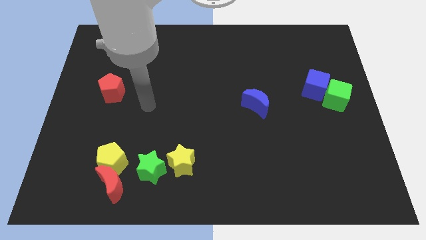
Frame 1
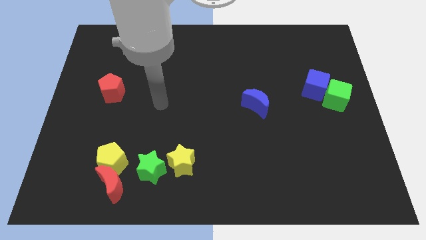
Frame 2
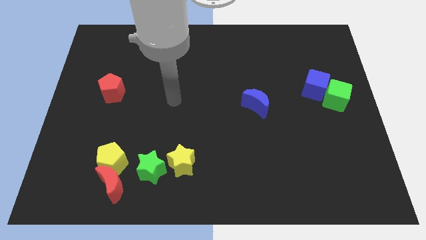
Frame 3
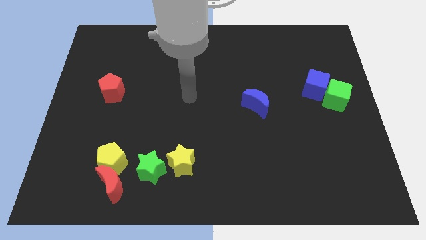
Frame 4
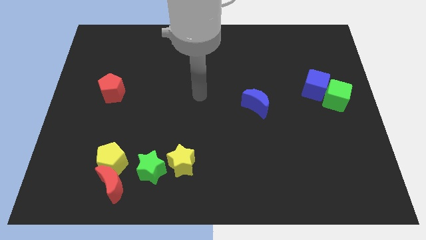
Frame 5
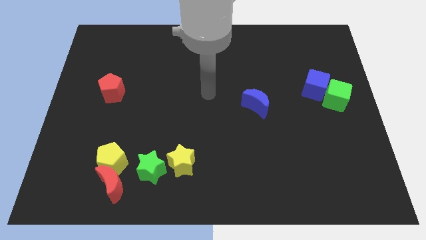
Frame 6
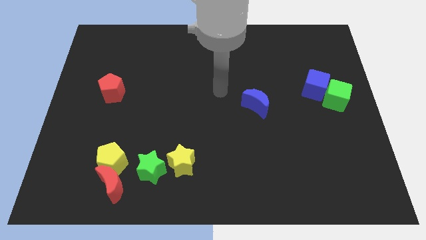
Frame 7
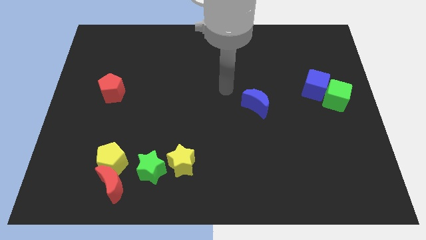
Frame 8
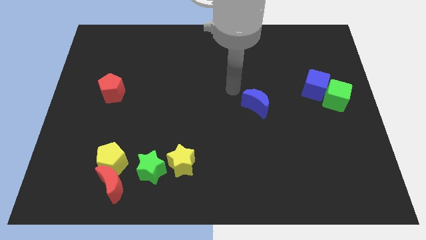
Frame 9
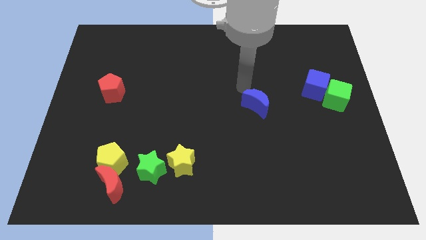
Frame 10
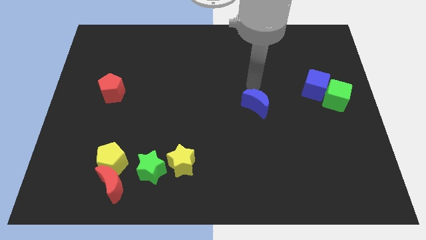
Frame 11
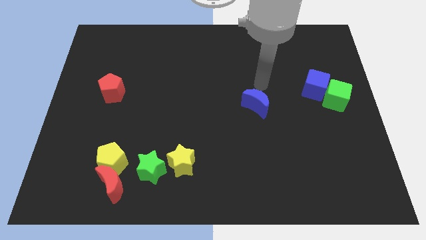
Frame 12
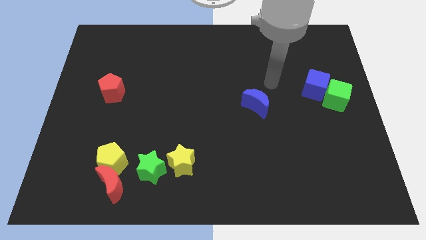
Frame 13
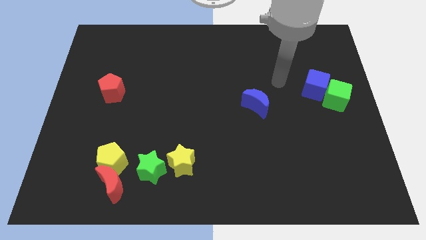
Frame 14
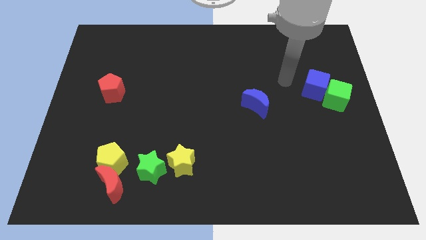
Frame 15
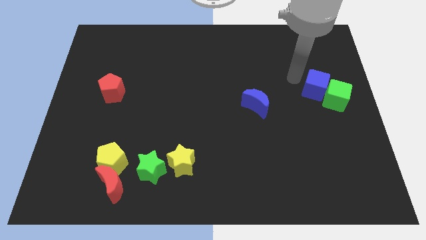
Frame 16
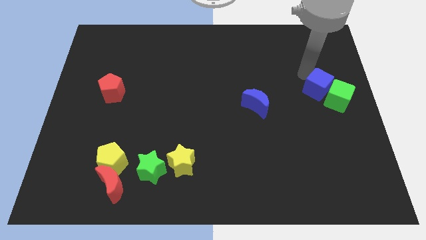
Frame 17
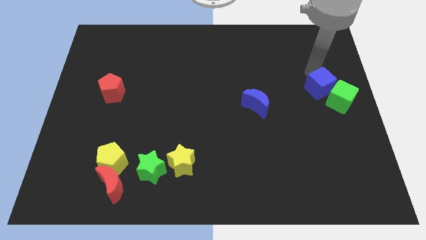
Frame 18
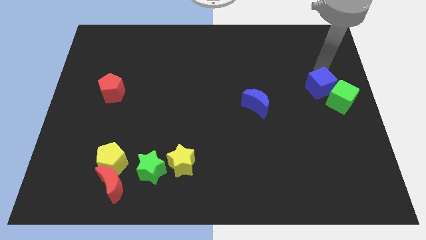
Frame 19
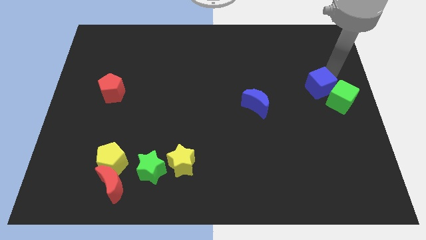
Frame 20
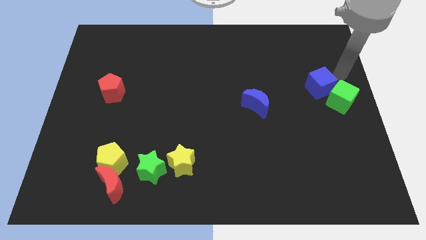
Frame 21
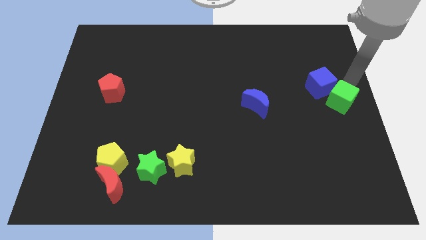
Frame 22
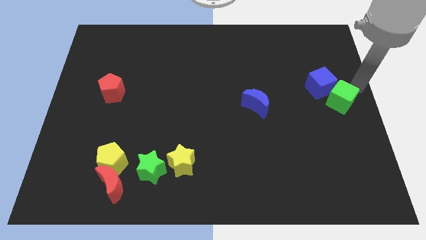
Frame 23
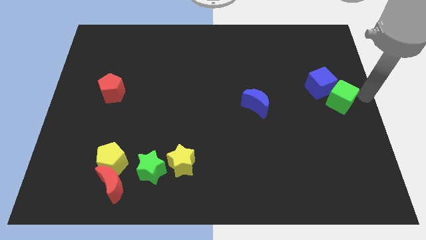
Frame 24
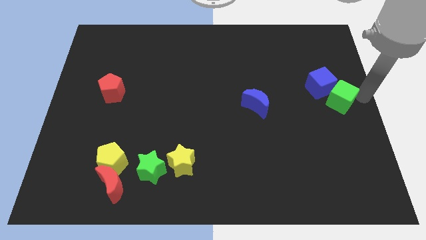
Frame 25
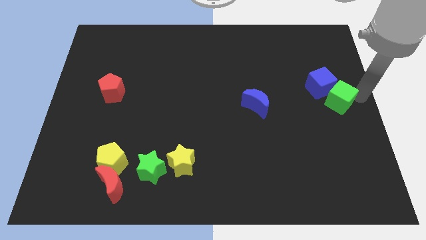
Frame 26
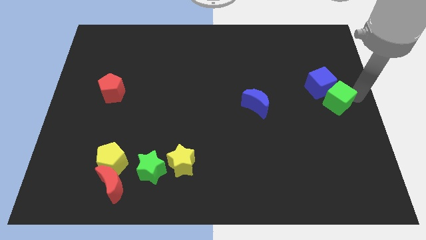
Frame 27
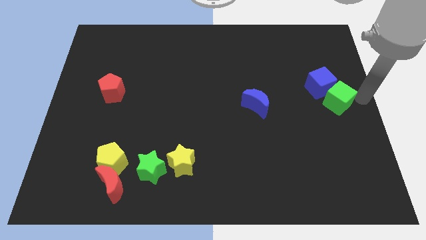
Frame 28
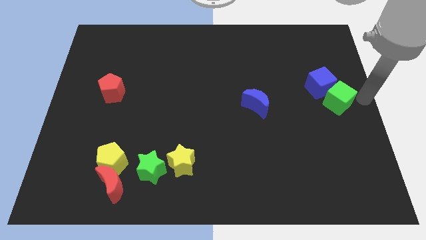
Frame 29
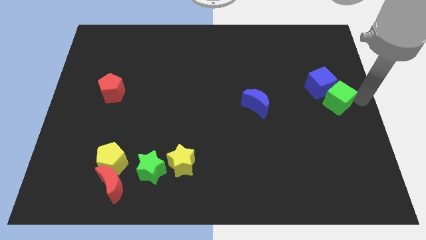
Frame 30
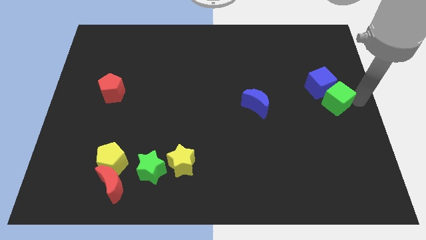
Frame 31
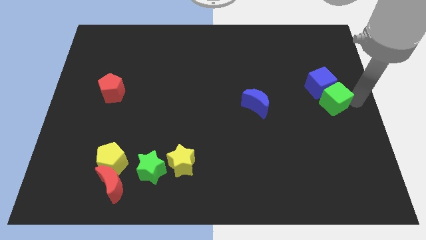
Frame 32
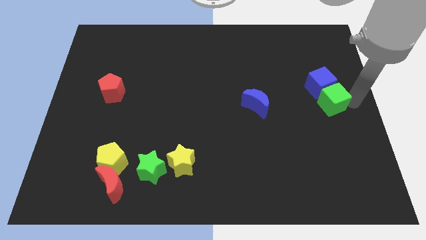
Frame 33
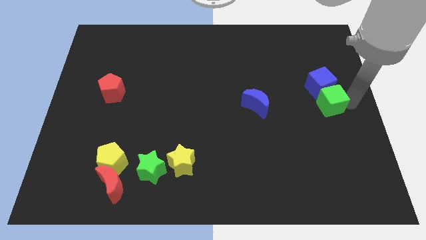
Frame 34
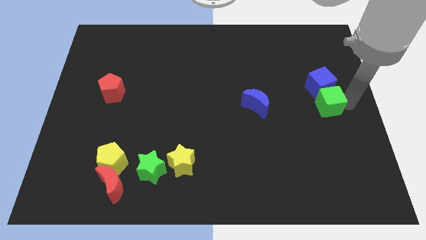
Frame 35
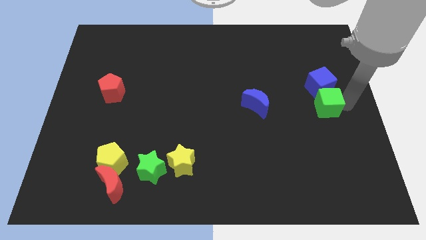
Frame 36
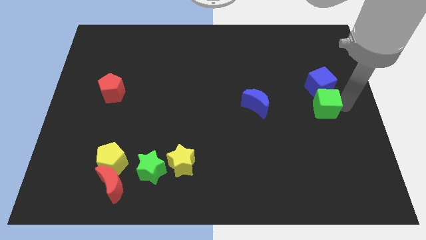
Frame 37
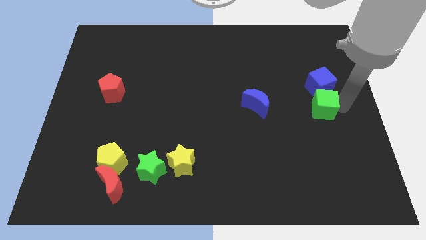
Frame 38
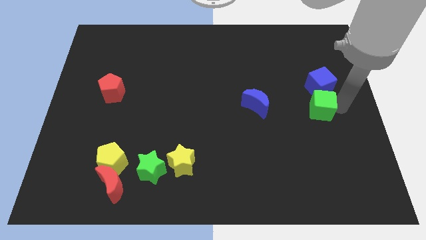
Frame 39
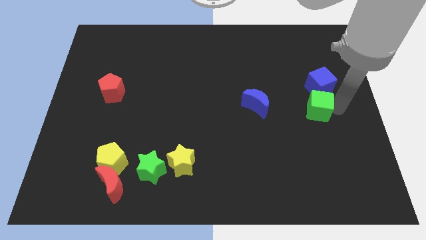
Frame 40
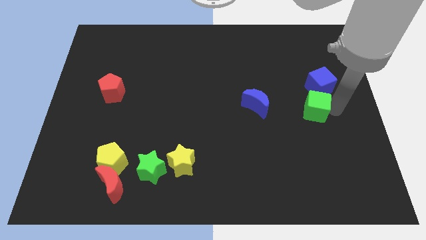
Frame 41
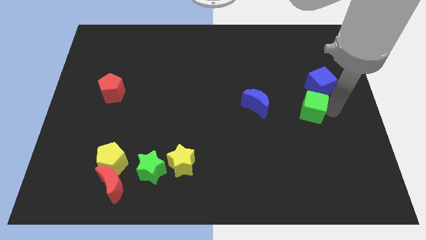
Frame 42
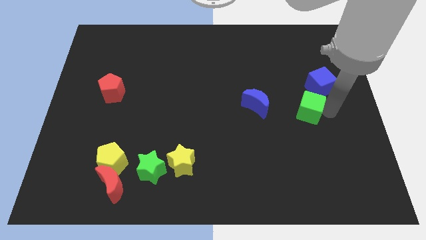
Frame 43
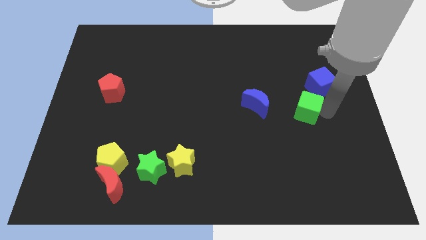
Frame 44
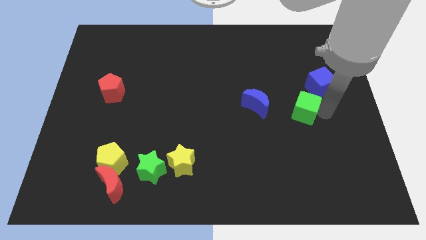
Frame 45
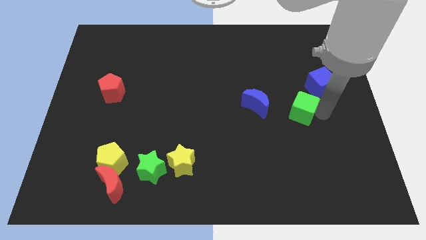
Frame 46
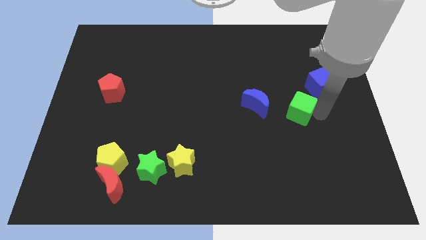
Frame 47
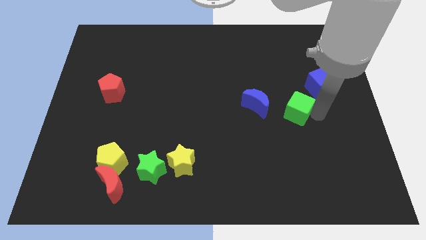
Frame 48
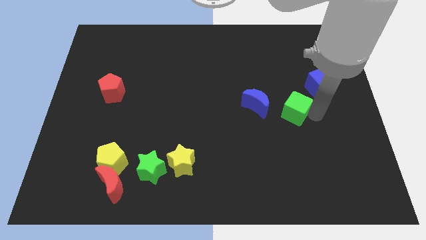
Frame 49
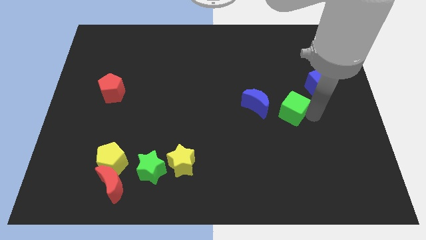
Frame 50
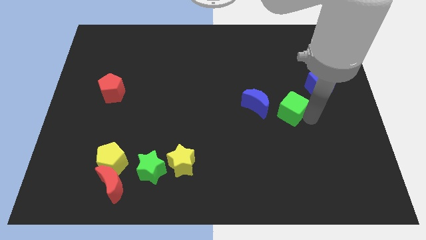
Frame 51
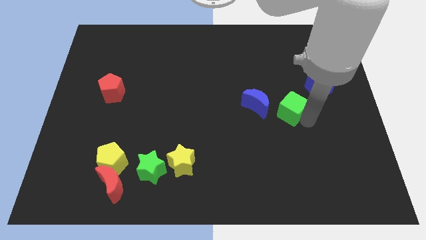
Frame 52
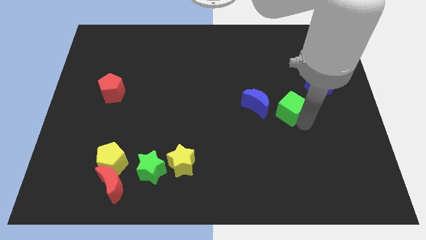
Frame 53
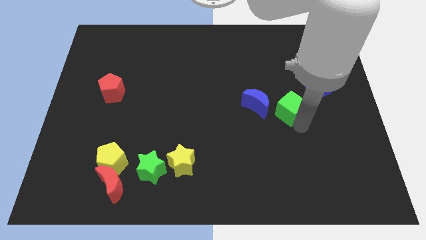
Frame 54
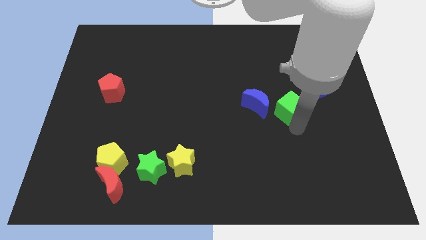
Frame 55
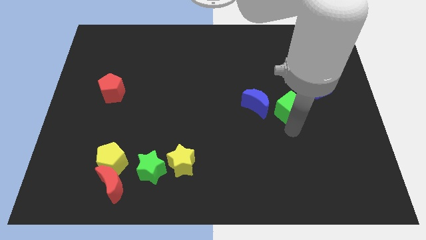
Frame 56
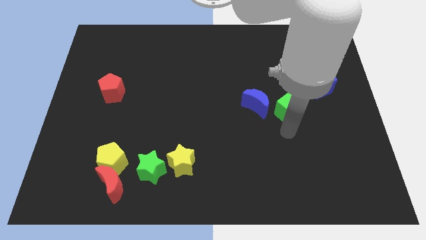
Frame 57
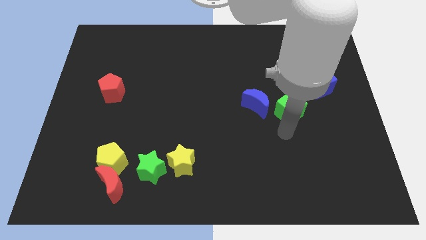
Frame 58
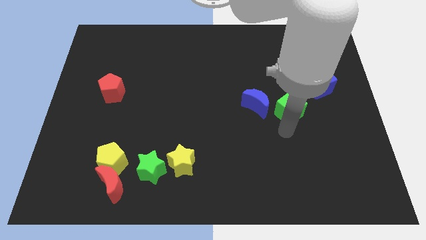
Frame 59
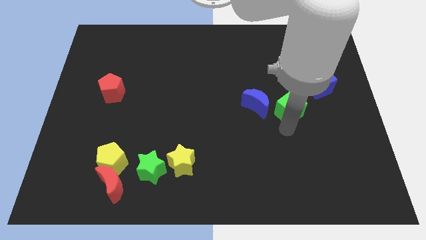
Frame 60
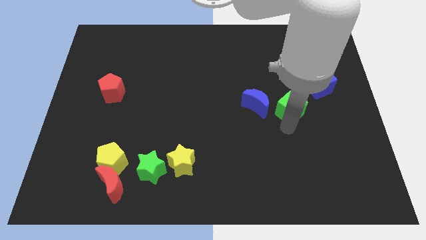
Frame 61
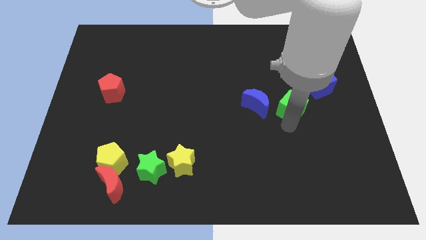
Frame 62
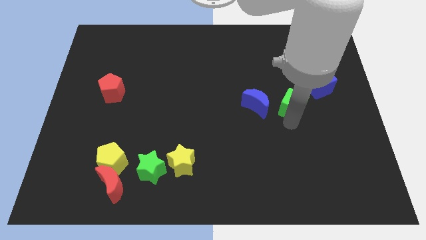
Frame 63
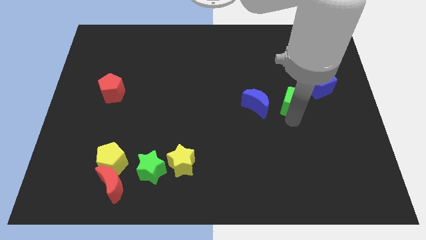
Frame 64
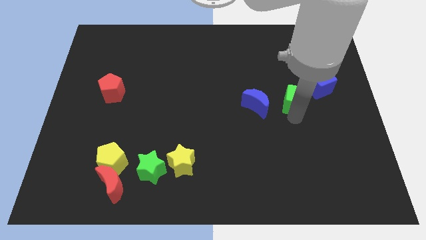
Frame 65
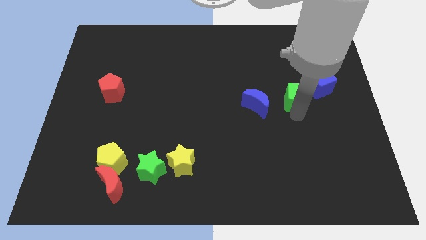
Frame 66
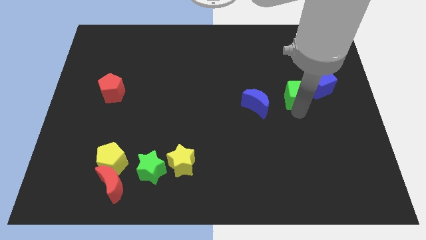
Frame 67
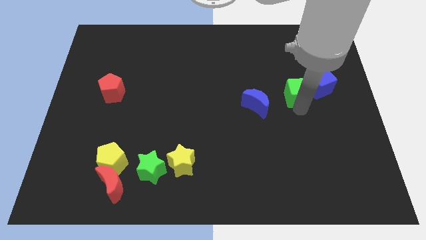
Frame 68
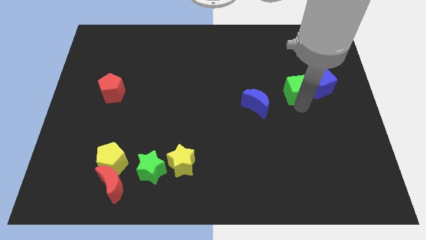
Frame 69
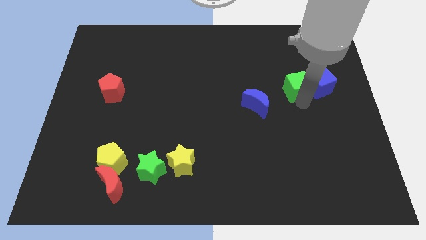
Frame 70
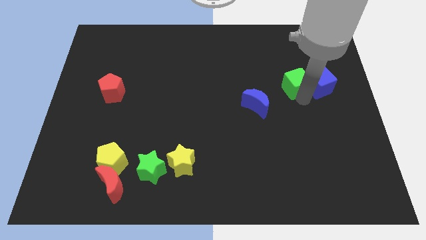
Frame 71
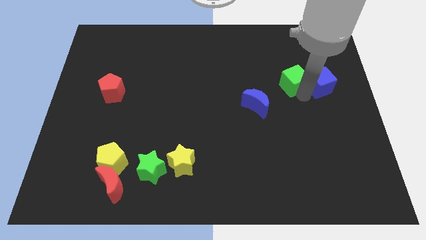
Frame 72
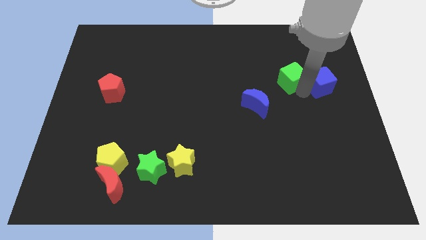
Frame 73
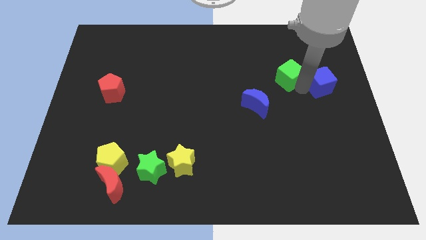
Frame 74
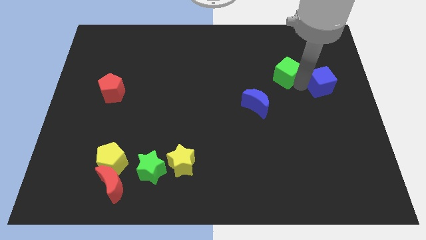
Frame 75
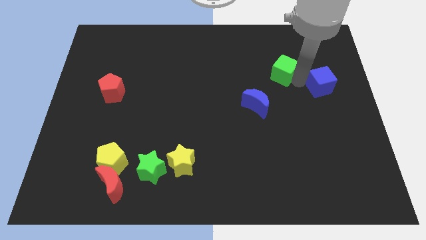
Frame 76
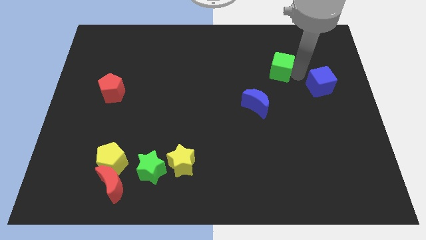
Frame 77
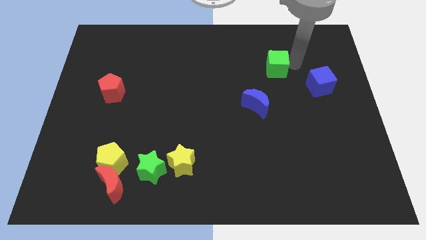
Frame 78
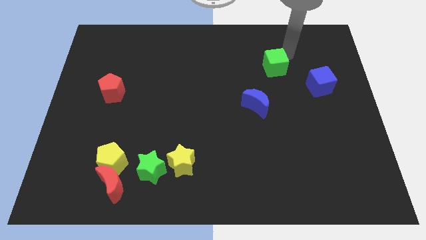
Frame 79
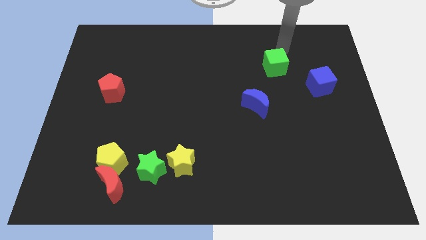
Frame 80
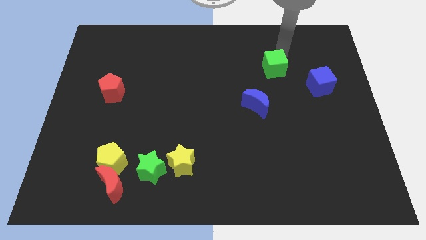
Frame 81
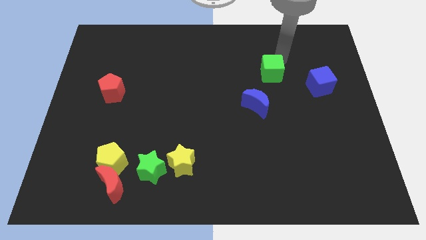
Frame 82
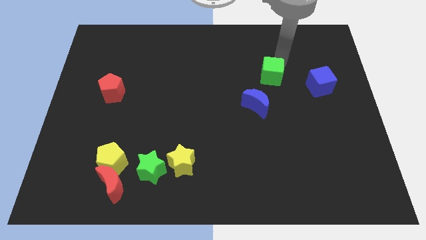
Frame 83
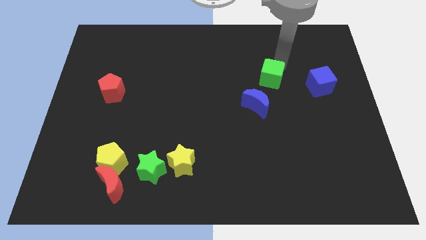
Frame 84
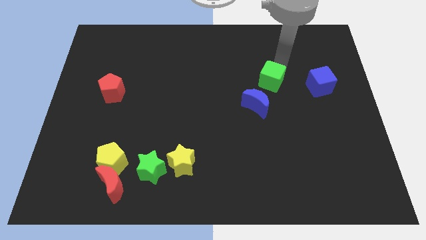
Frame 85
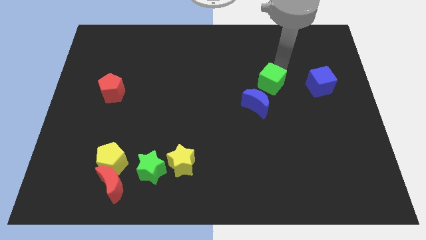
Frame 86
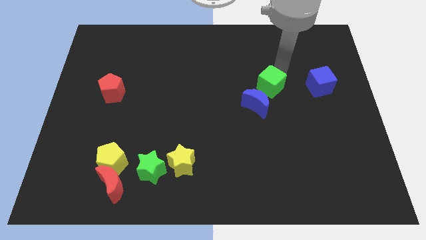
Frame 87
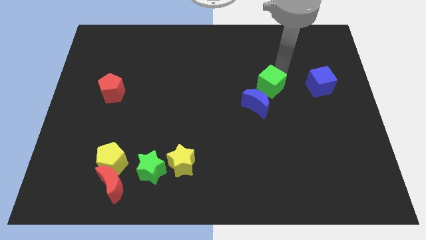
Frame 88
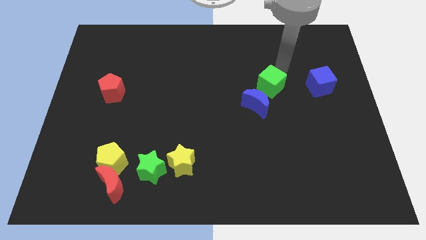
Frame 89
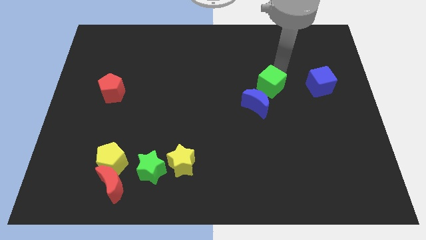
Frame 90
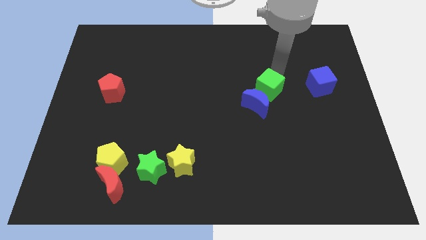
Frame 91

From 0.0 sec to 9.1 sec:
slide the green cube to the blue moon
